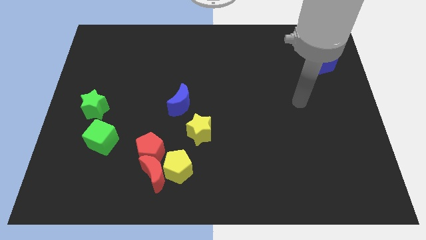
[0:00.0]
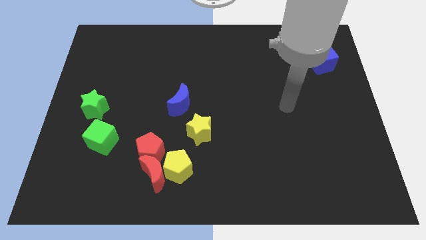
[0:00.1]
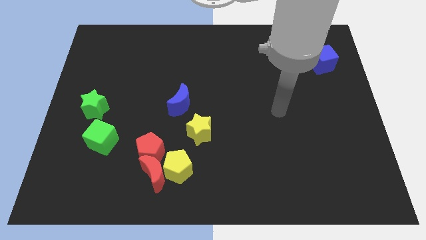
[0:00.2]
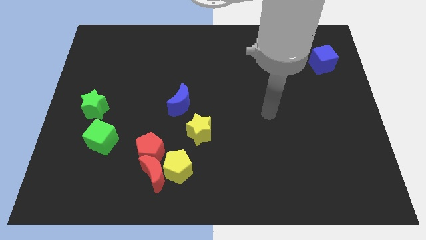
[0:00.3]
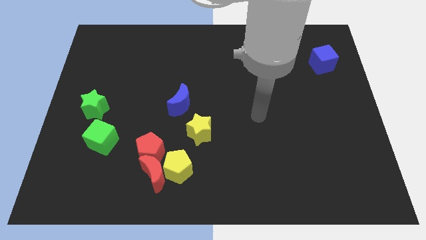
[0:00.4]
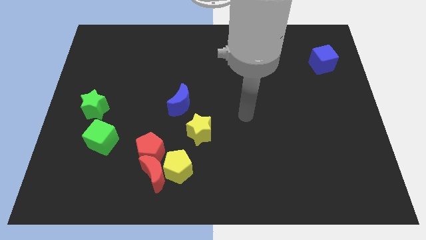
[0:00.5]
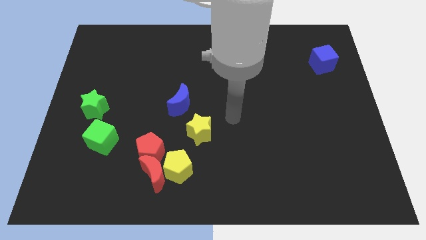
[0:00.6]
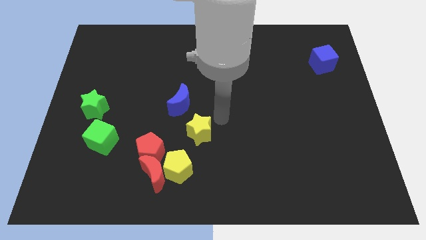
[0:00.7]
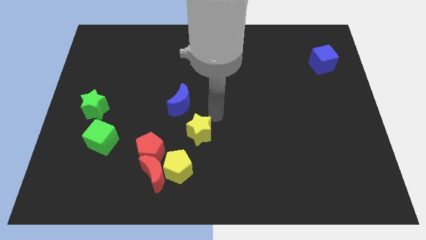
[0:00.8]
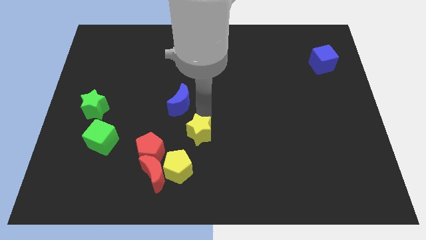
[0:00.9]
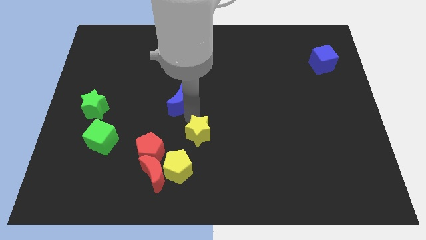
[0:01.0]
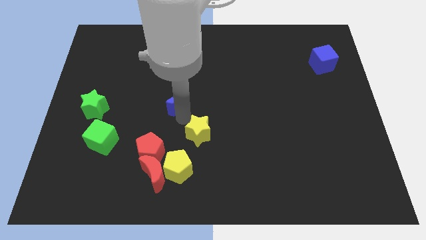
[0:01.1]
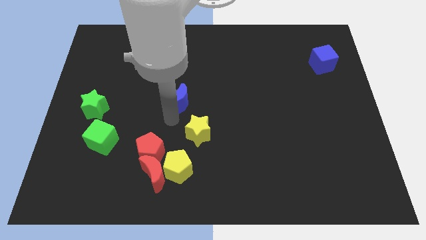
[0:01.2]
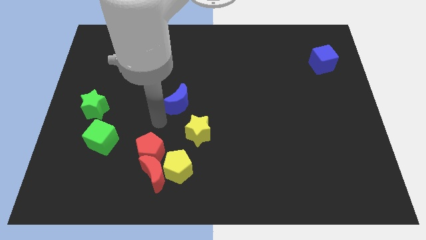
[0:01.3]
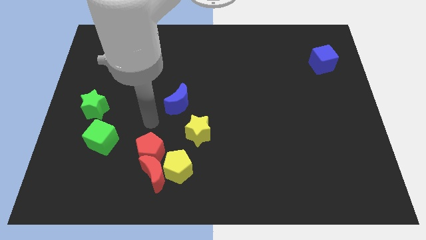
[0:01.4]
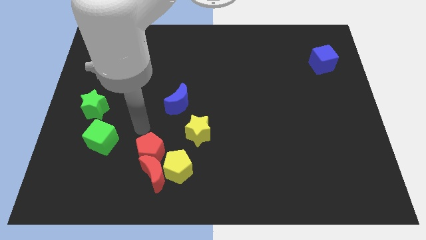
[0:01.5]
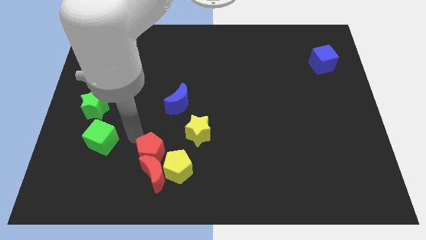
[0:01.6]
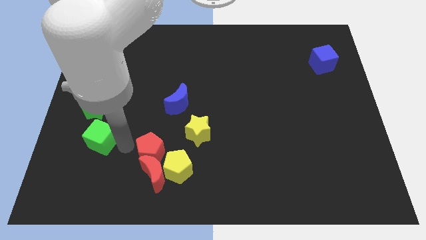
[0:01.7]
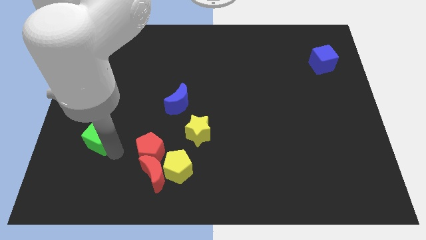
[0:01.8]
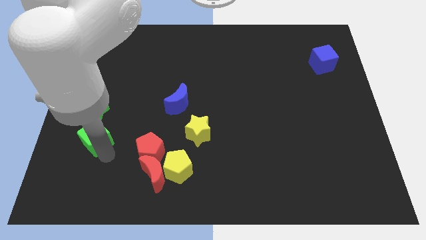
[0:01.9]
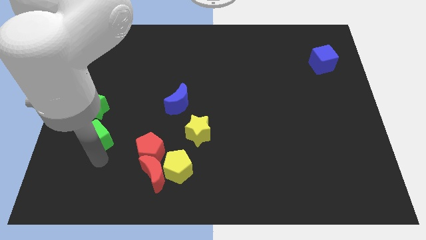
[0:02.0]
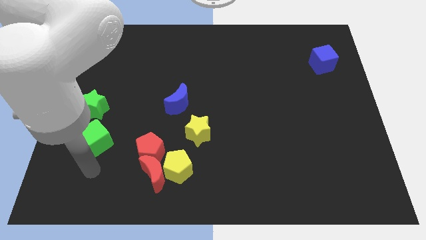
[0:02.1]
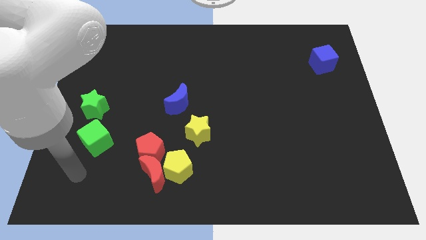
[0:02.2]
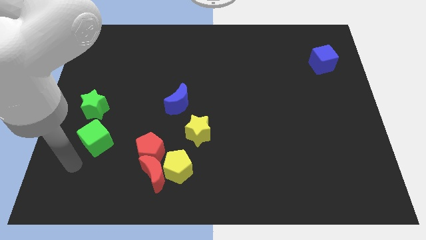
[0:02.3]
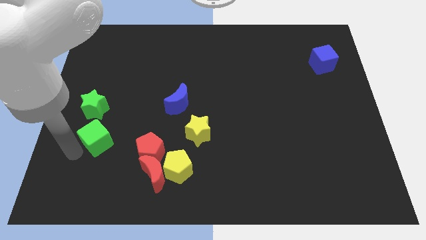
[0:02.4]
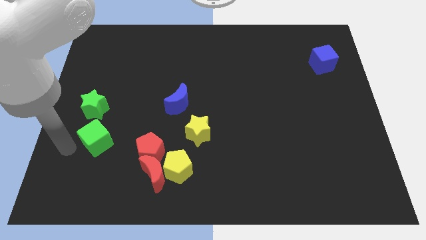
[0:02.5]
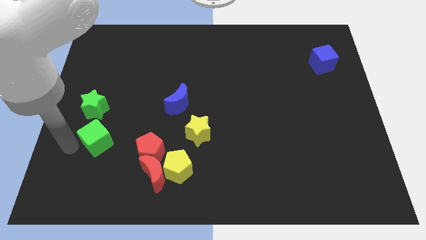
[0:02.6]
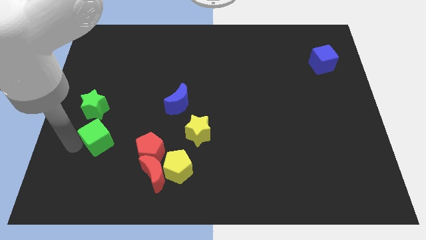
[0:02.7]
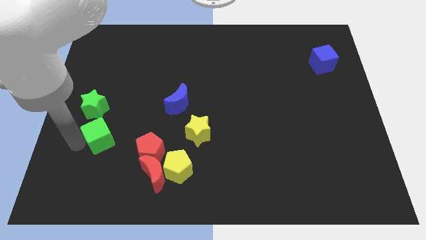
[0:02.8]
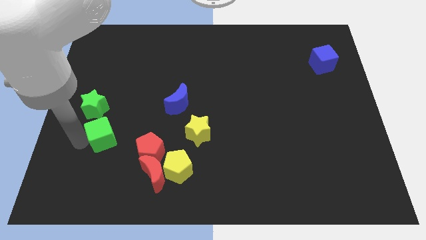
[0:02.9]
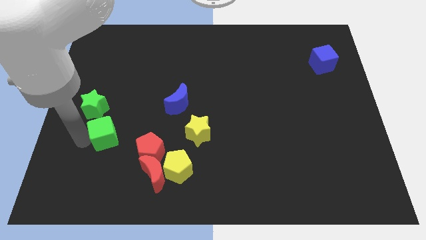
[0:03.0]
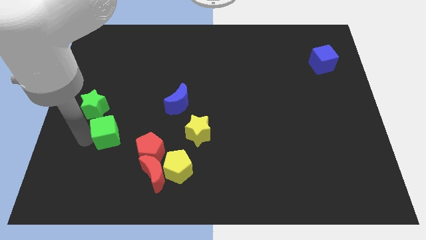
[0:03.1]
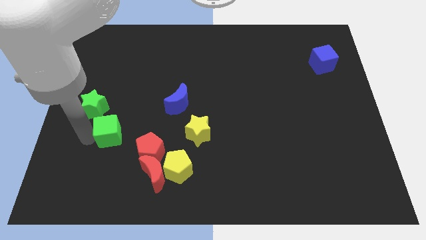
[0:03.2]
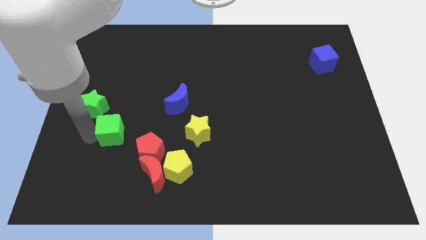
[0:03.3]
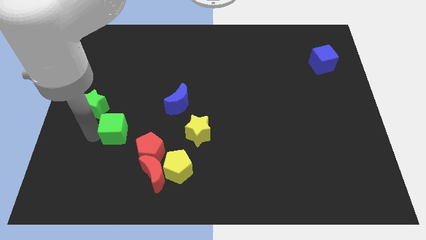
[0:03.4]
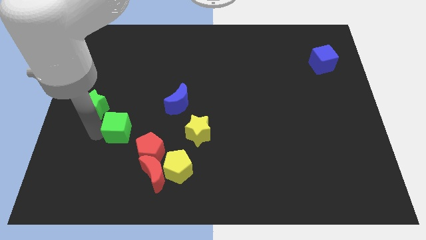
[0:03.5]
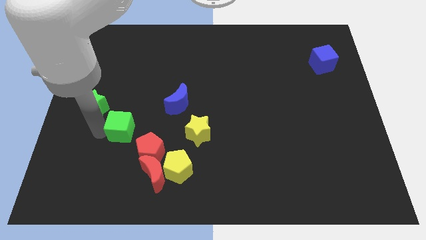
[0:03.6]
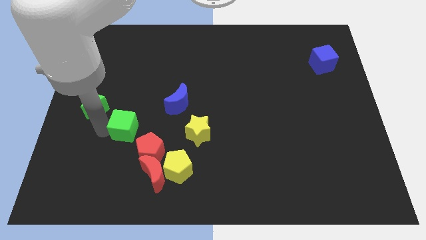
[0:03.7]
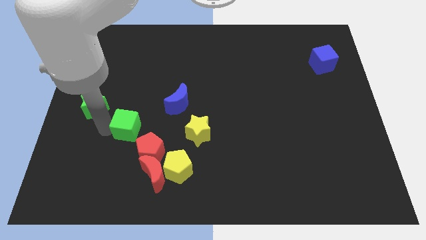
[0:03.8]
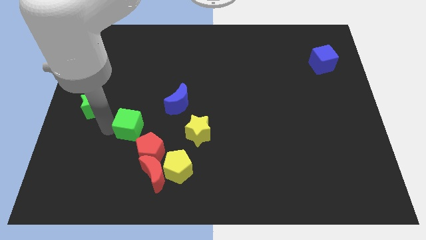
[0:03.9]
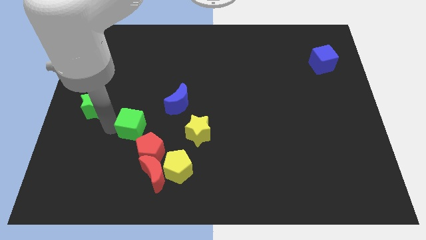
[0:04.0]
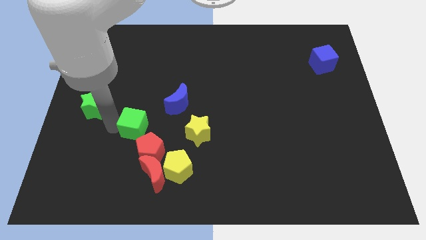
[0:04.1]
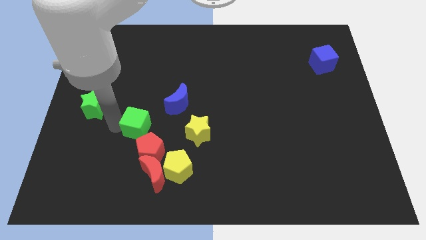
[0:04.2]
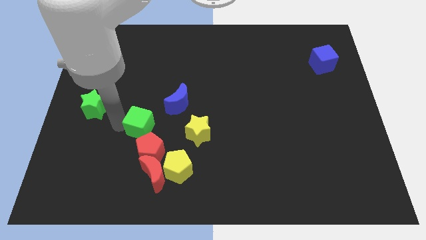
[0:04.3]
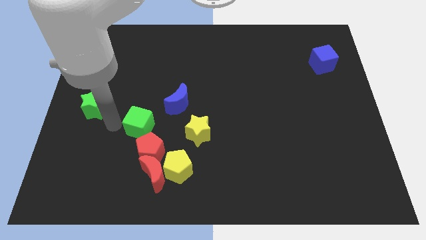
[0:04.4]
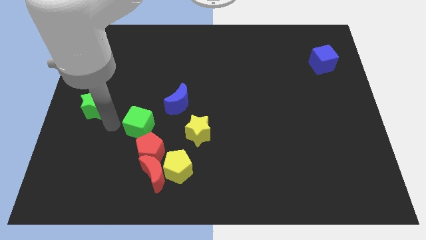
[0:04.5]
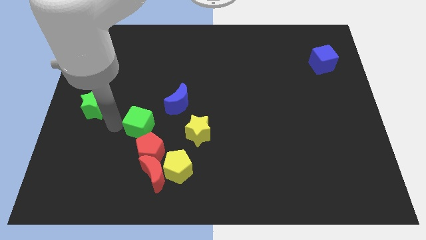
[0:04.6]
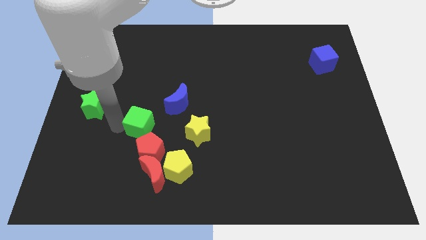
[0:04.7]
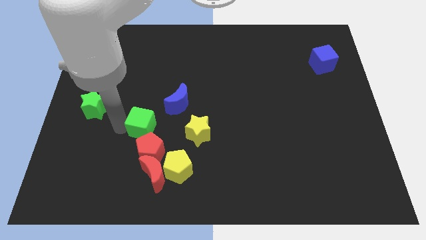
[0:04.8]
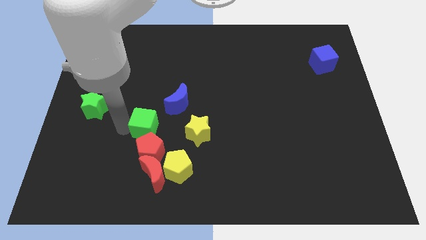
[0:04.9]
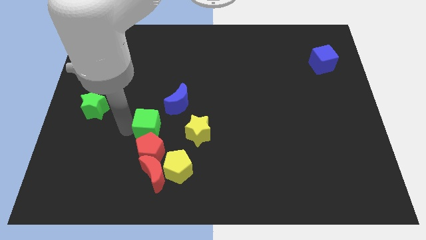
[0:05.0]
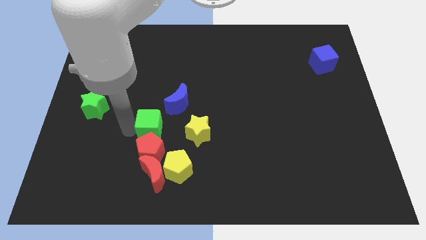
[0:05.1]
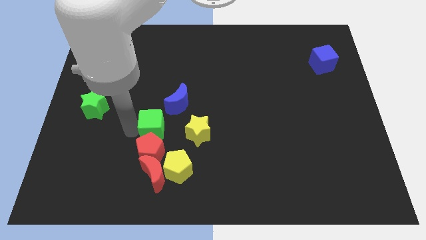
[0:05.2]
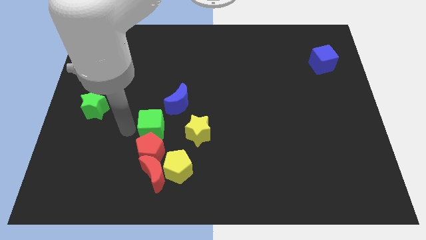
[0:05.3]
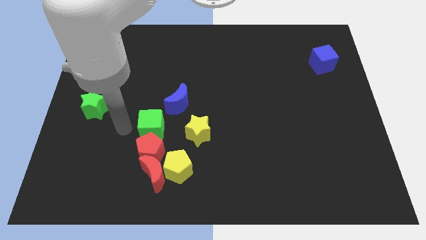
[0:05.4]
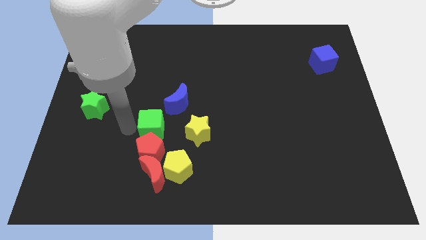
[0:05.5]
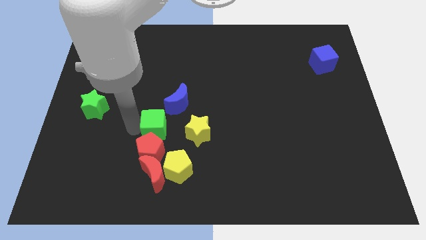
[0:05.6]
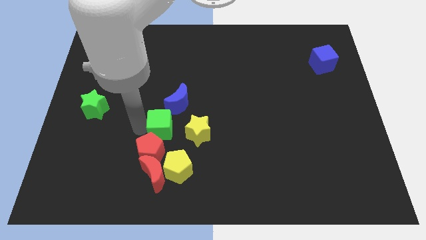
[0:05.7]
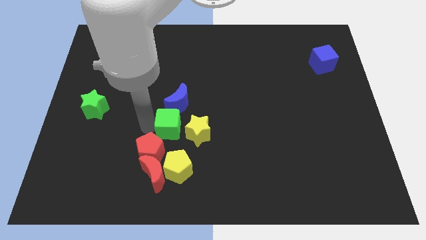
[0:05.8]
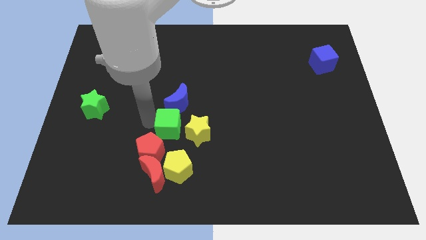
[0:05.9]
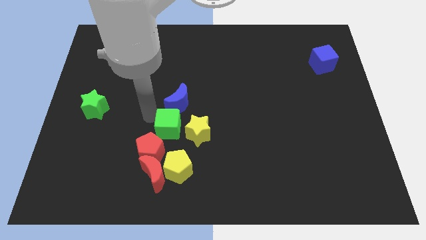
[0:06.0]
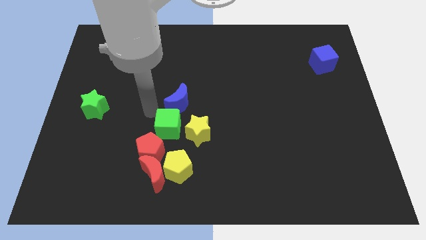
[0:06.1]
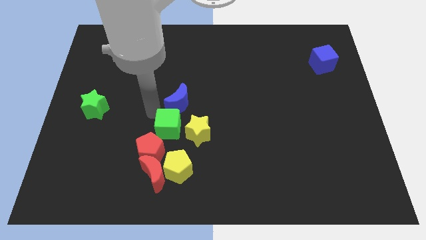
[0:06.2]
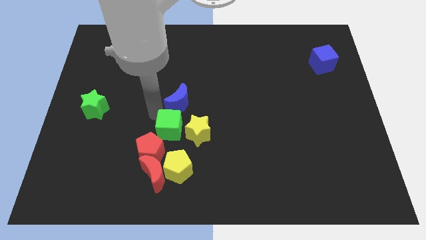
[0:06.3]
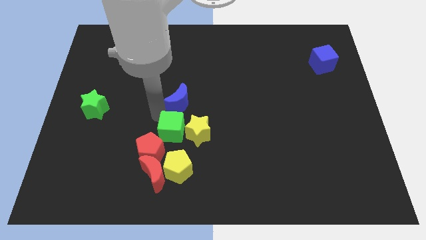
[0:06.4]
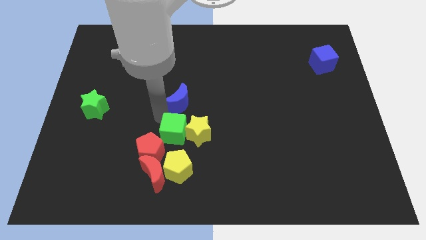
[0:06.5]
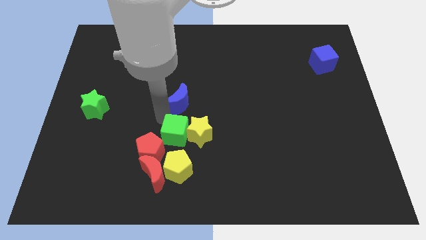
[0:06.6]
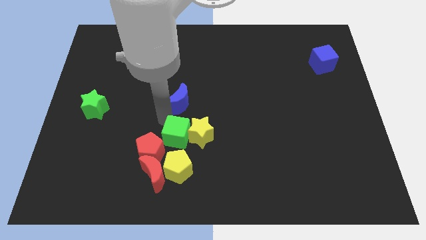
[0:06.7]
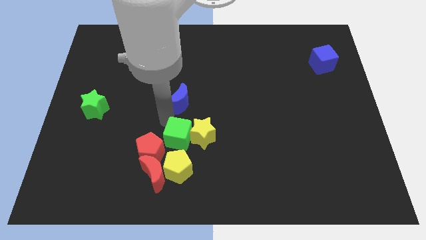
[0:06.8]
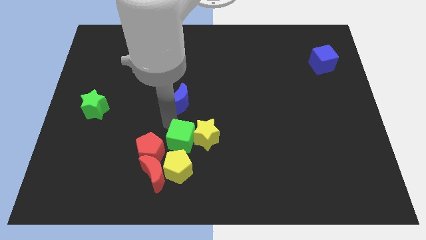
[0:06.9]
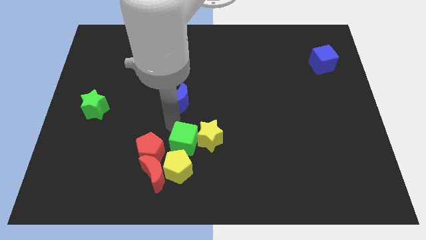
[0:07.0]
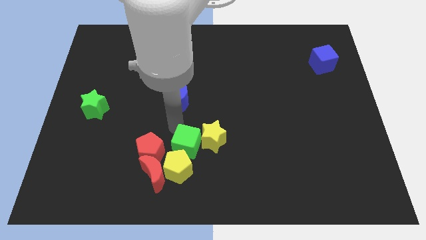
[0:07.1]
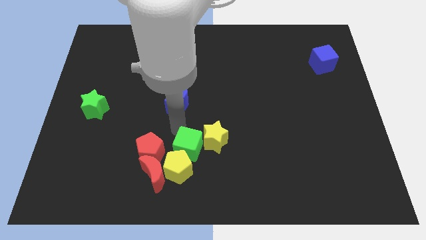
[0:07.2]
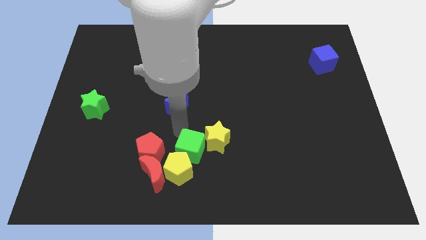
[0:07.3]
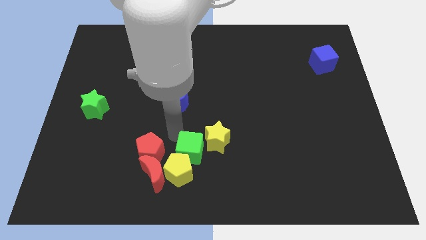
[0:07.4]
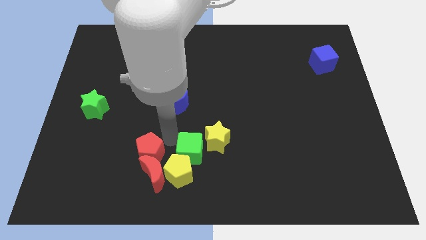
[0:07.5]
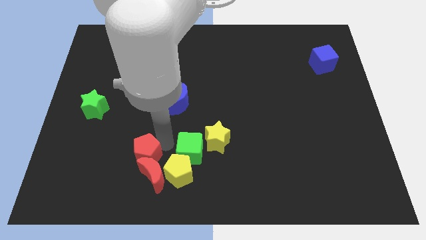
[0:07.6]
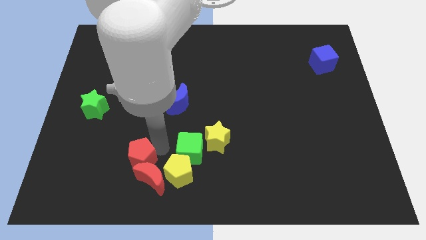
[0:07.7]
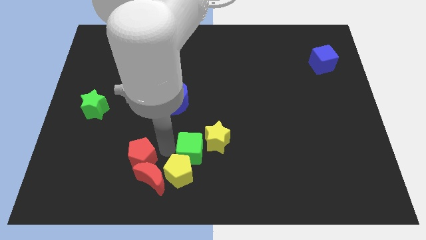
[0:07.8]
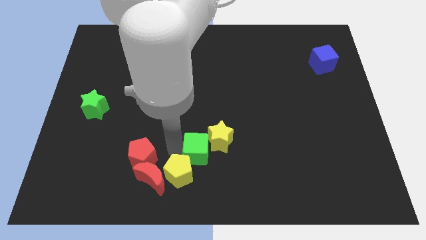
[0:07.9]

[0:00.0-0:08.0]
move the green cube right

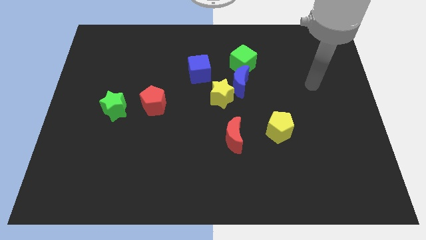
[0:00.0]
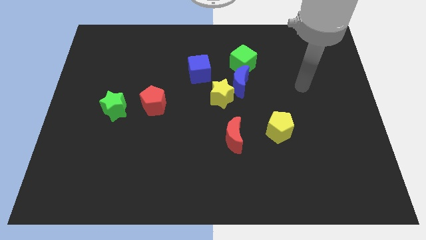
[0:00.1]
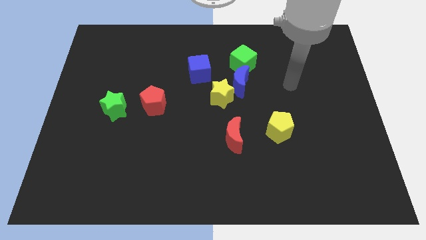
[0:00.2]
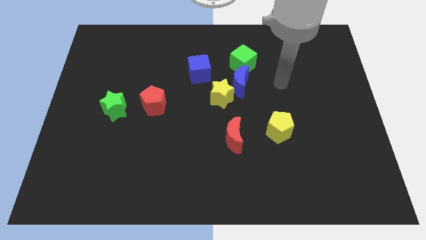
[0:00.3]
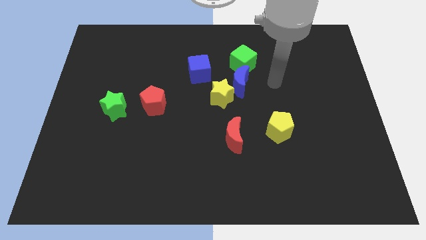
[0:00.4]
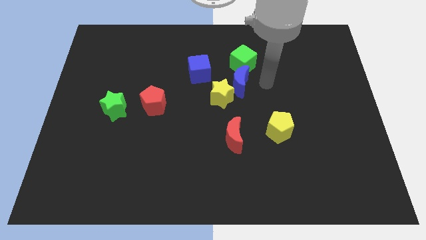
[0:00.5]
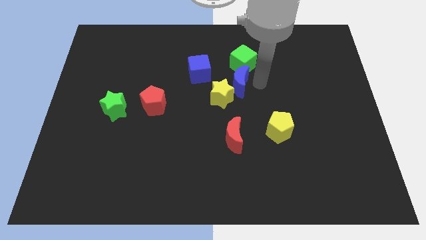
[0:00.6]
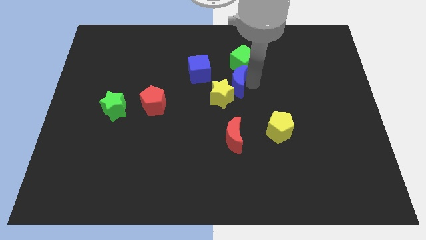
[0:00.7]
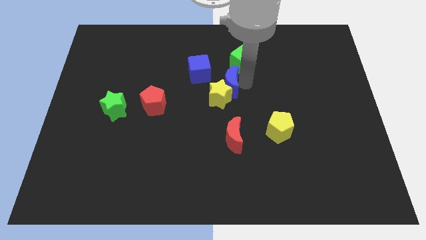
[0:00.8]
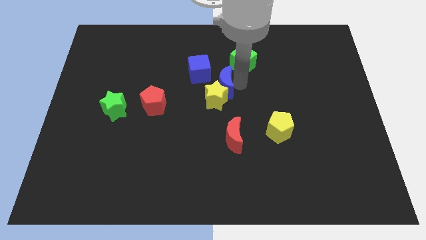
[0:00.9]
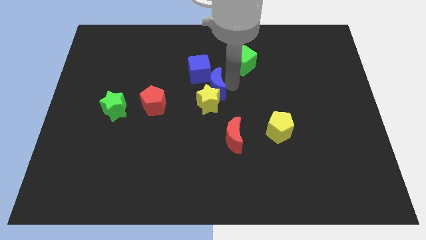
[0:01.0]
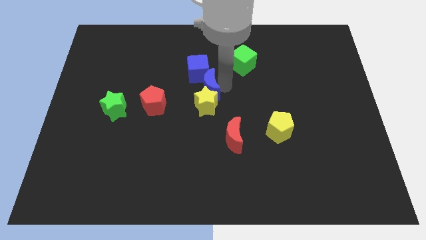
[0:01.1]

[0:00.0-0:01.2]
push the blue moon a bit left
